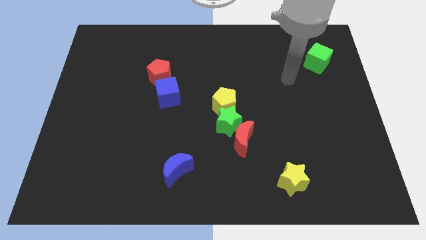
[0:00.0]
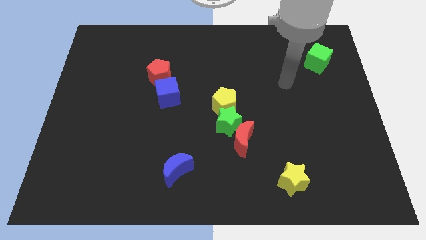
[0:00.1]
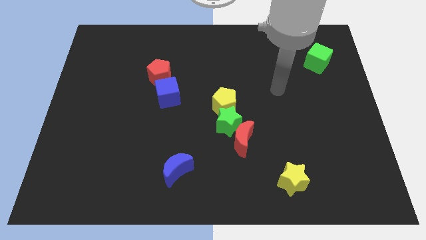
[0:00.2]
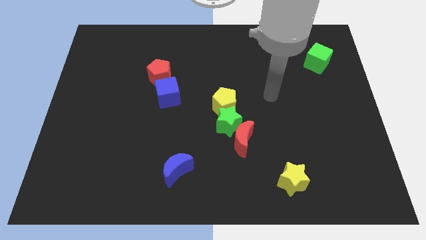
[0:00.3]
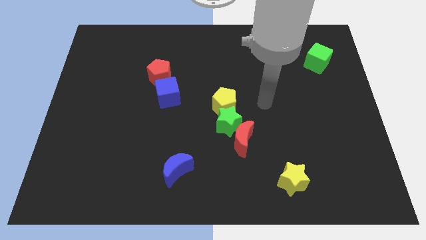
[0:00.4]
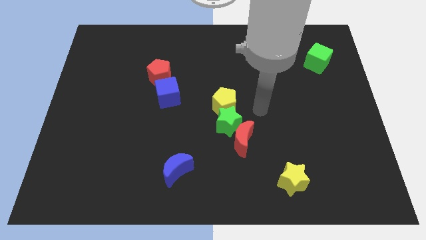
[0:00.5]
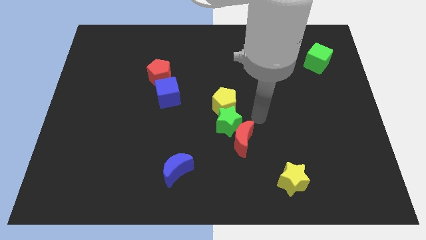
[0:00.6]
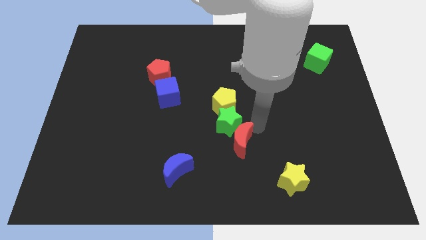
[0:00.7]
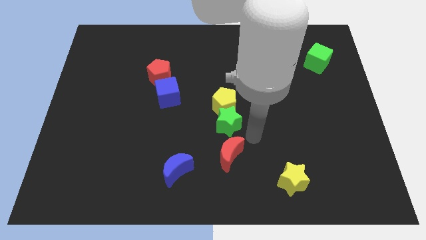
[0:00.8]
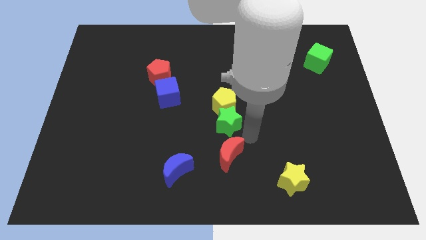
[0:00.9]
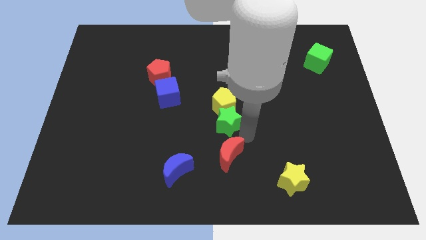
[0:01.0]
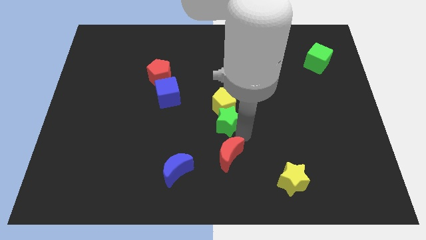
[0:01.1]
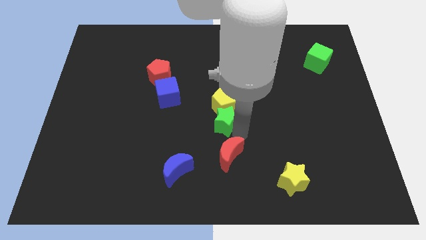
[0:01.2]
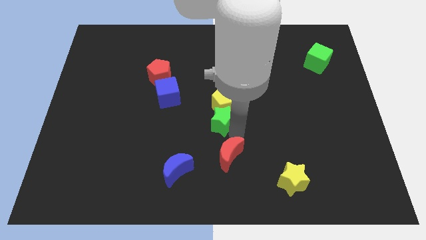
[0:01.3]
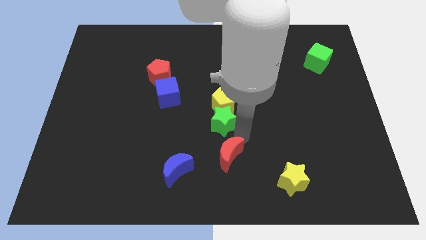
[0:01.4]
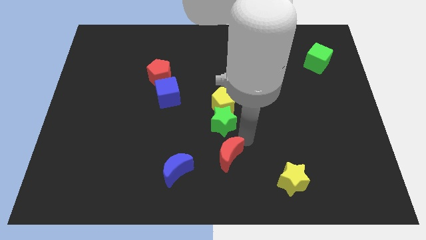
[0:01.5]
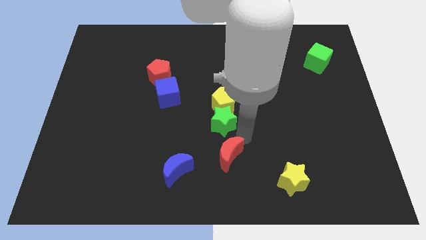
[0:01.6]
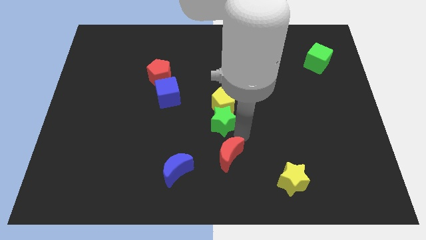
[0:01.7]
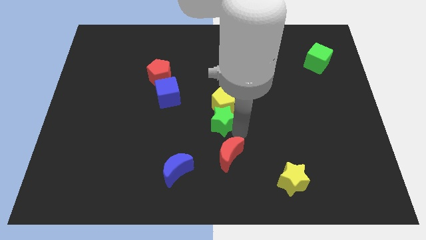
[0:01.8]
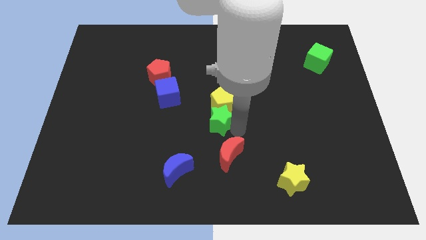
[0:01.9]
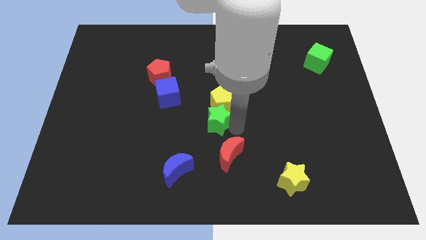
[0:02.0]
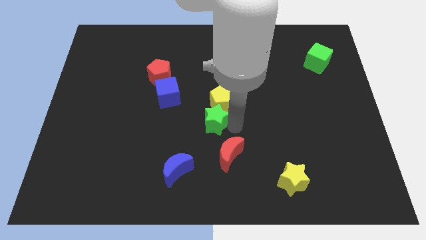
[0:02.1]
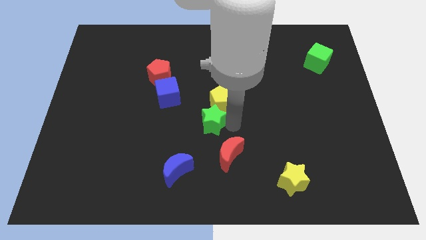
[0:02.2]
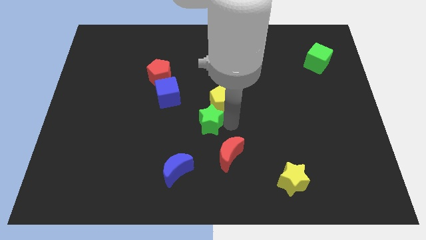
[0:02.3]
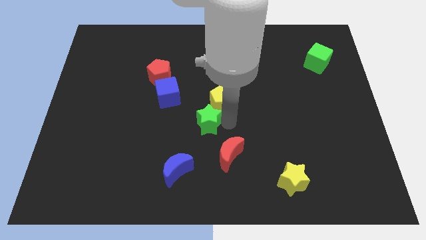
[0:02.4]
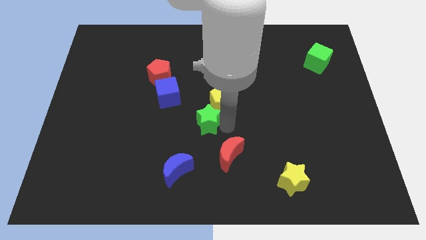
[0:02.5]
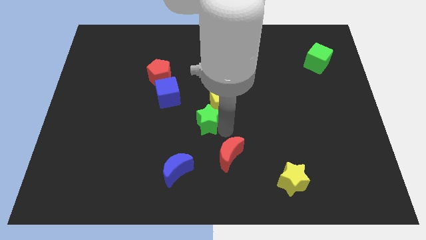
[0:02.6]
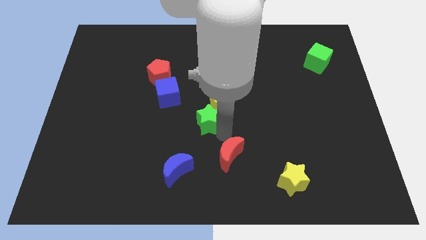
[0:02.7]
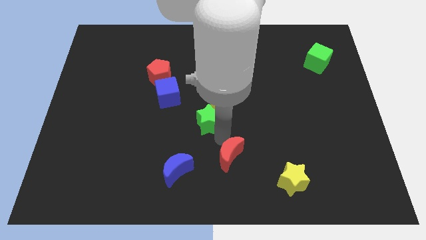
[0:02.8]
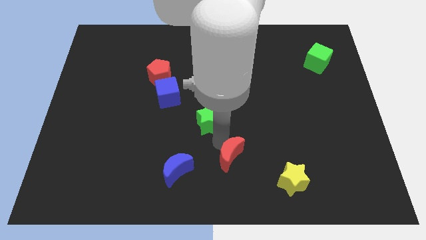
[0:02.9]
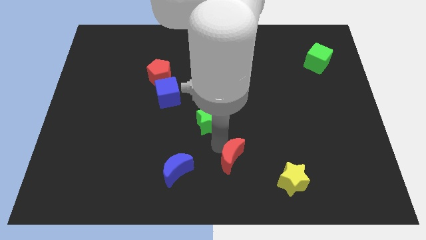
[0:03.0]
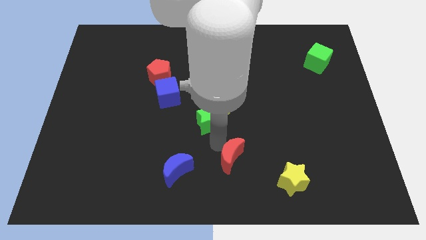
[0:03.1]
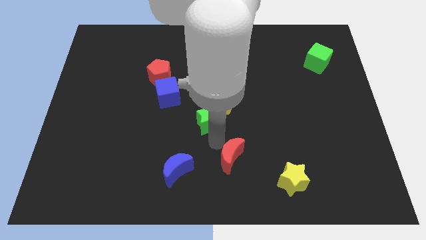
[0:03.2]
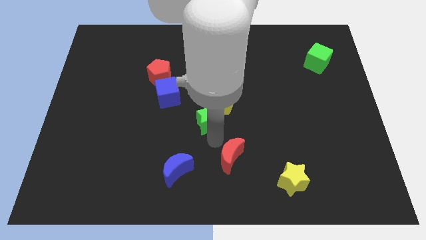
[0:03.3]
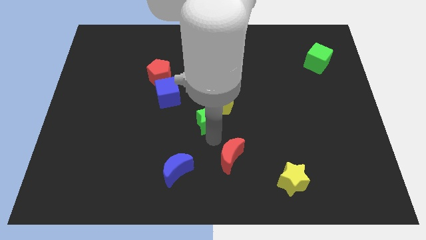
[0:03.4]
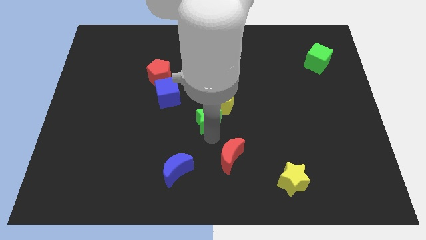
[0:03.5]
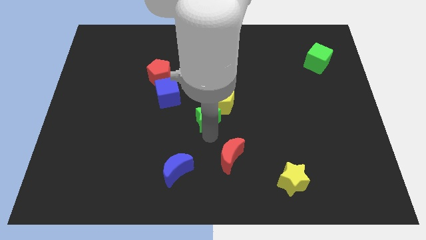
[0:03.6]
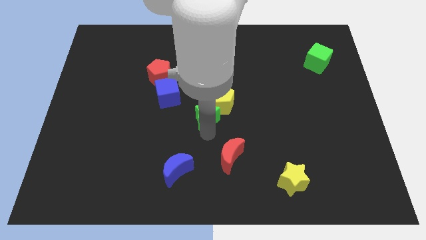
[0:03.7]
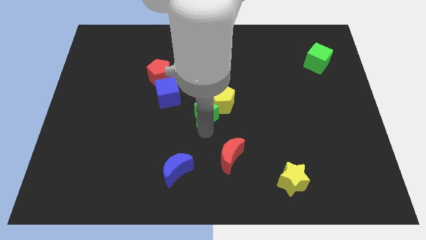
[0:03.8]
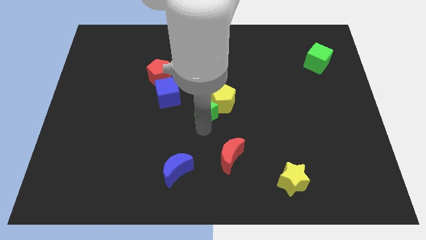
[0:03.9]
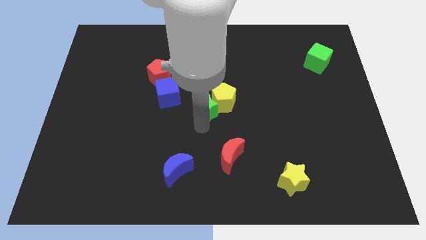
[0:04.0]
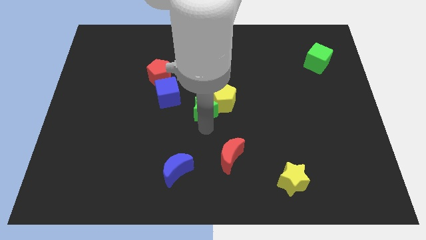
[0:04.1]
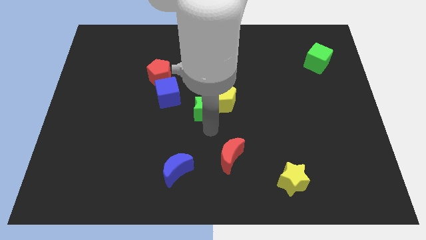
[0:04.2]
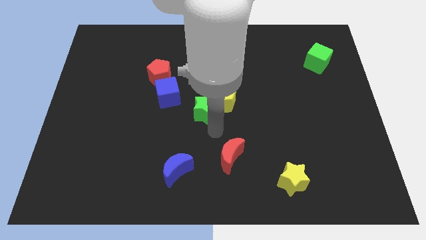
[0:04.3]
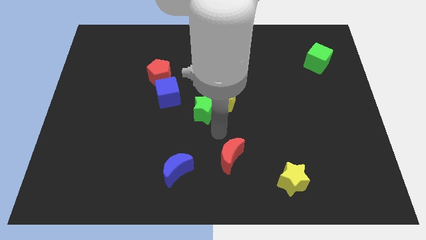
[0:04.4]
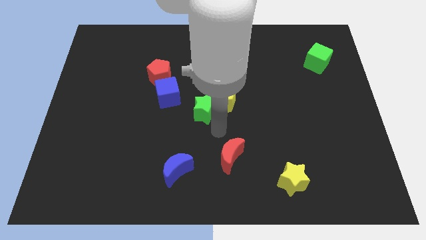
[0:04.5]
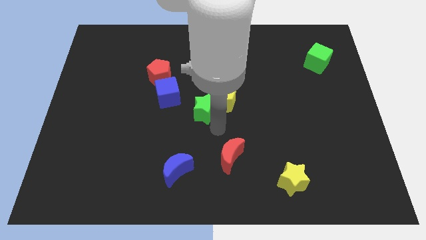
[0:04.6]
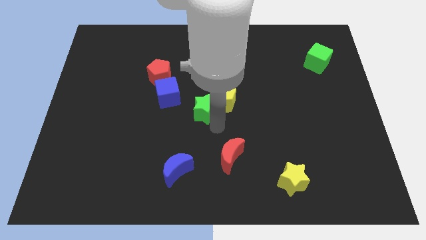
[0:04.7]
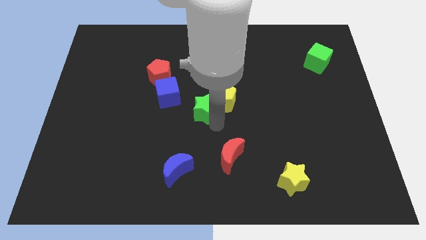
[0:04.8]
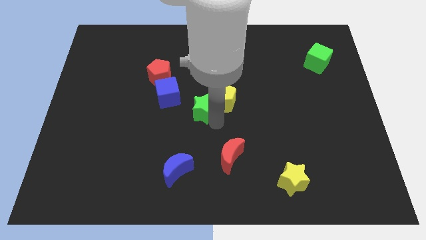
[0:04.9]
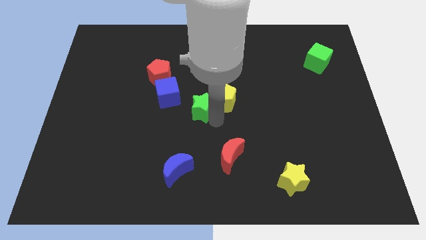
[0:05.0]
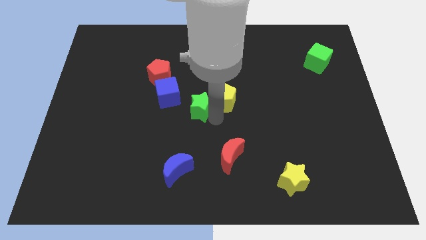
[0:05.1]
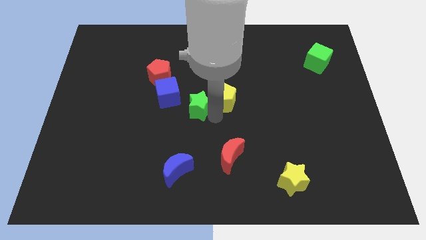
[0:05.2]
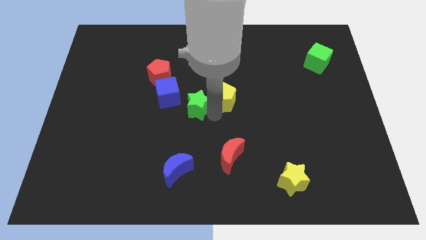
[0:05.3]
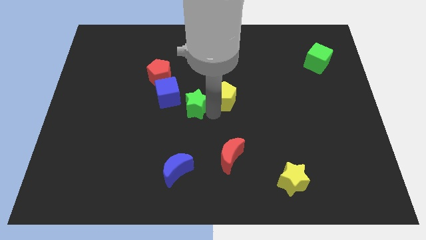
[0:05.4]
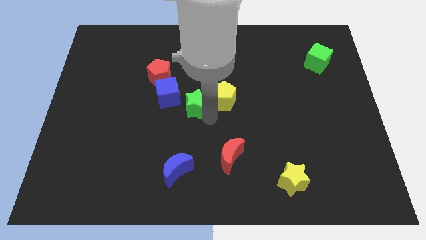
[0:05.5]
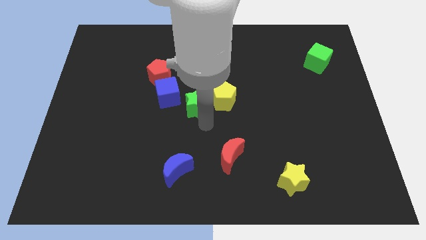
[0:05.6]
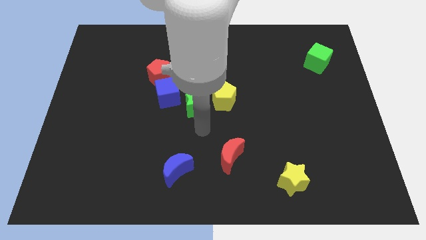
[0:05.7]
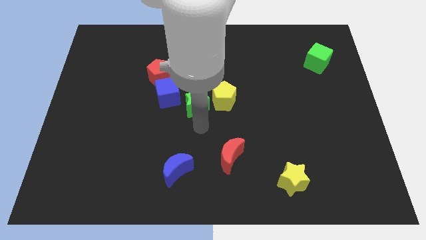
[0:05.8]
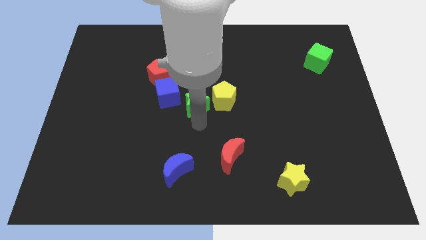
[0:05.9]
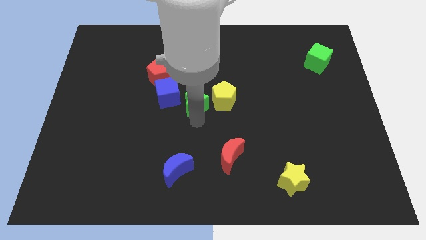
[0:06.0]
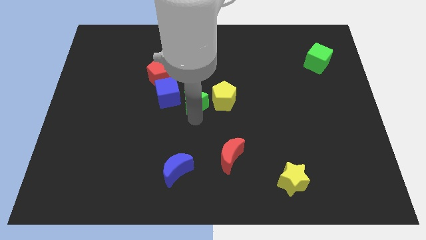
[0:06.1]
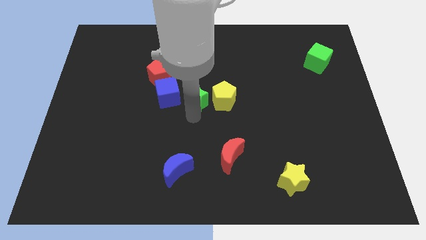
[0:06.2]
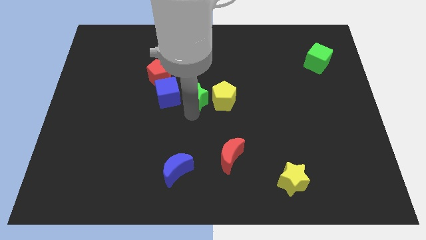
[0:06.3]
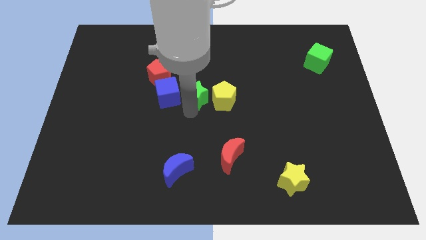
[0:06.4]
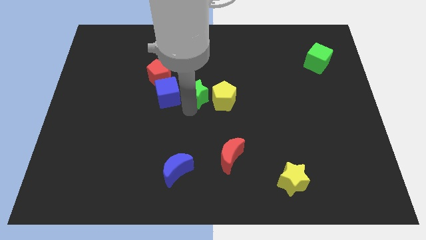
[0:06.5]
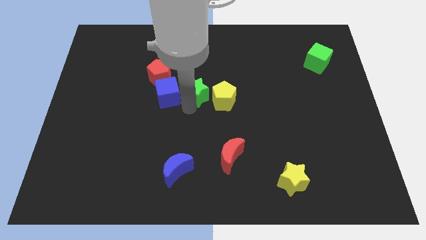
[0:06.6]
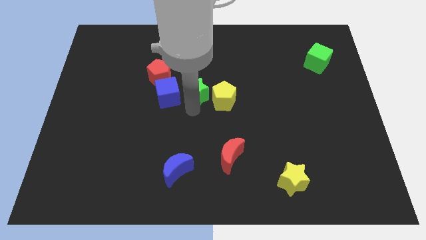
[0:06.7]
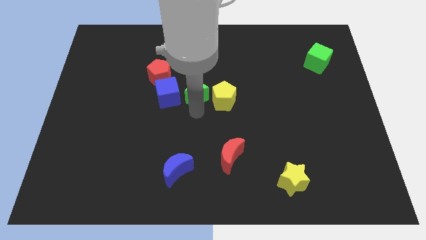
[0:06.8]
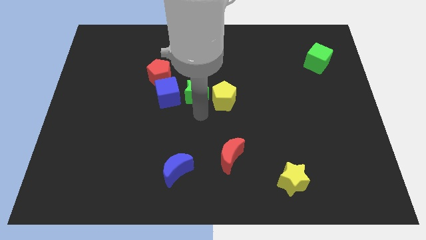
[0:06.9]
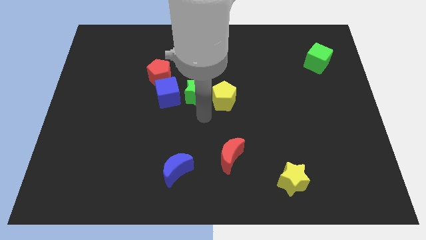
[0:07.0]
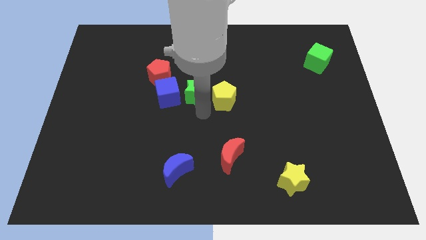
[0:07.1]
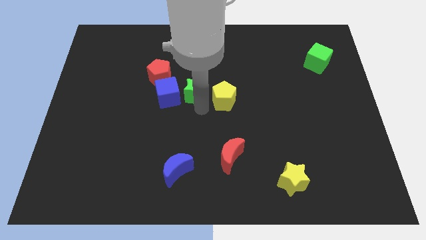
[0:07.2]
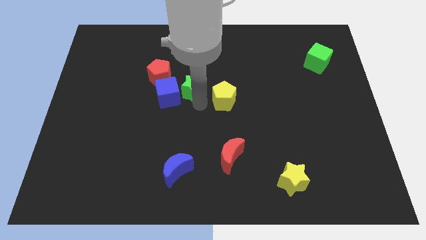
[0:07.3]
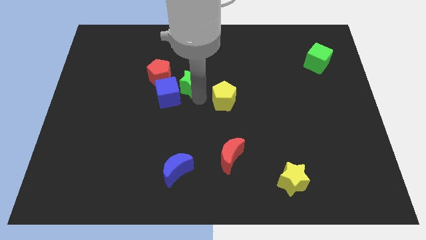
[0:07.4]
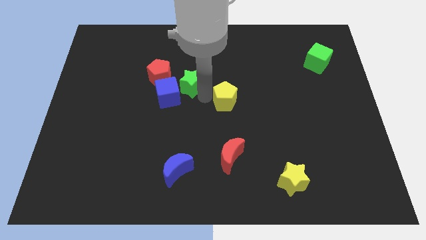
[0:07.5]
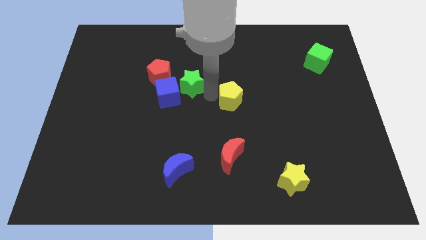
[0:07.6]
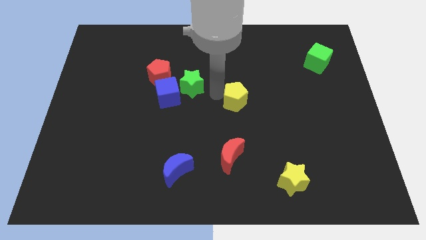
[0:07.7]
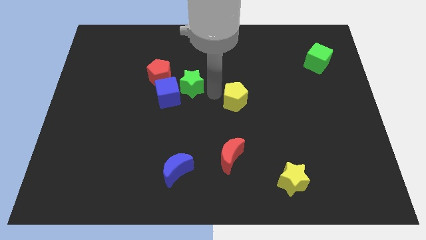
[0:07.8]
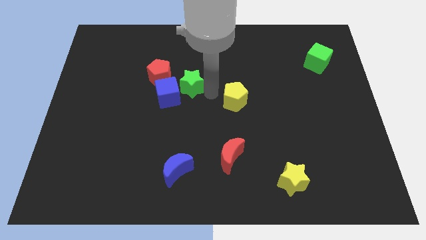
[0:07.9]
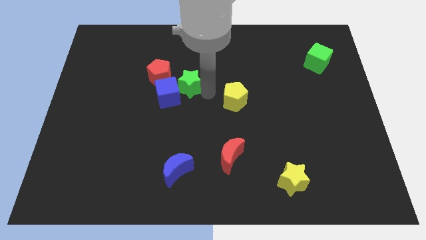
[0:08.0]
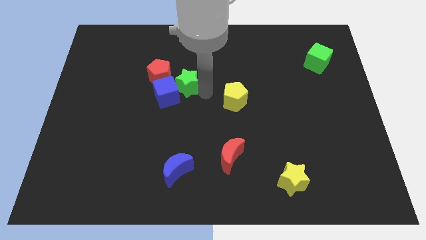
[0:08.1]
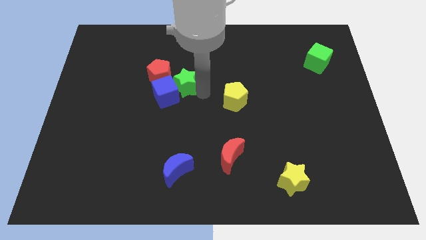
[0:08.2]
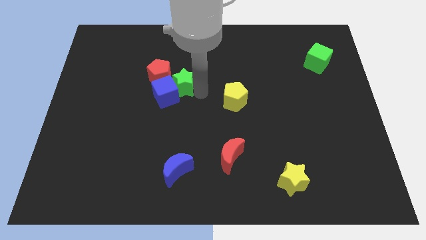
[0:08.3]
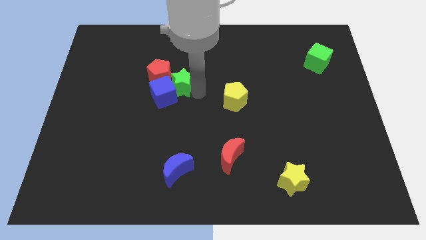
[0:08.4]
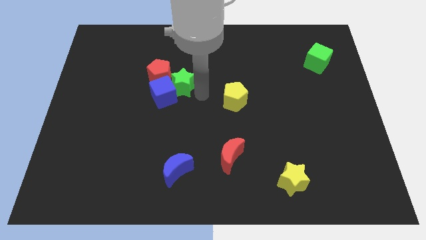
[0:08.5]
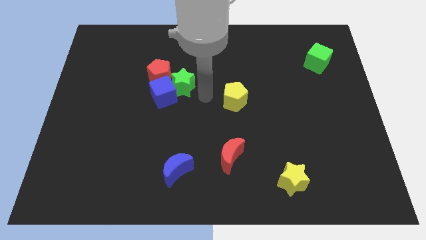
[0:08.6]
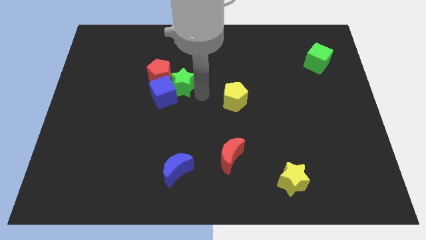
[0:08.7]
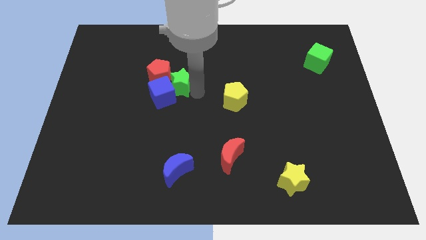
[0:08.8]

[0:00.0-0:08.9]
slide the green star towards the red pentagon
